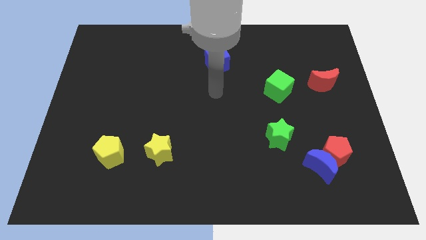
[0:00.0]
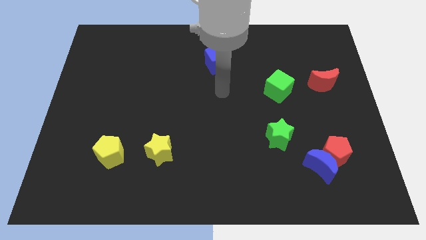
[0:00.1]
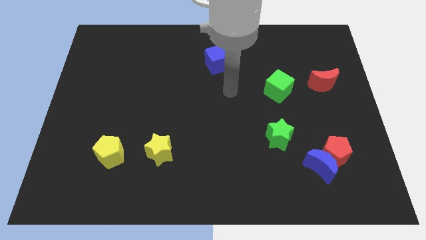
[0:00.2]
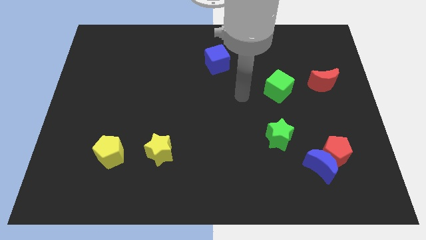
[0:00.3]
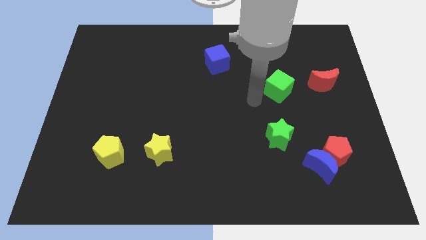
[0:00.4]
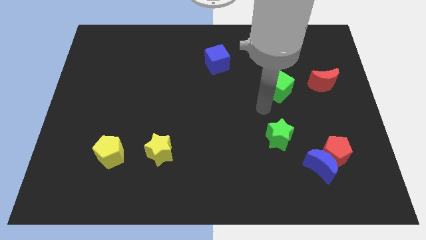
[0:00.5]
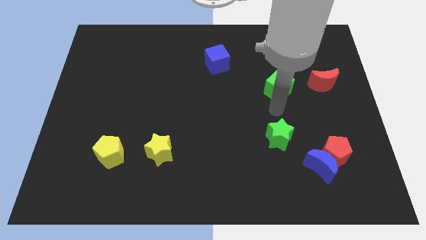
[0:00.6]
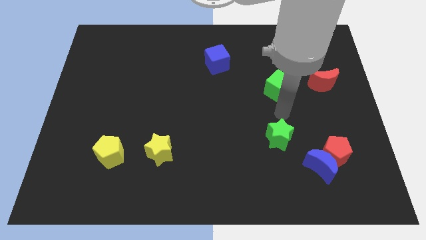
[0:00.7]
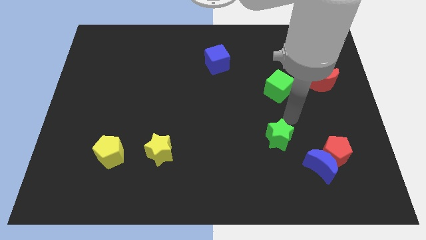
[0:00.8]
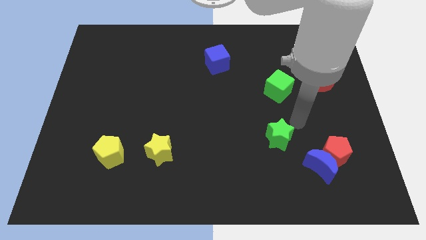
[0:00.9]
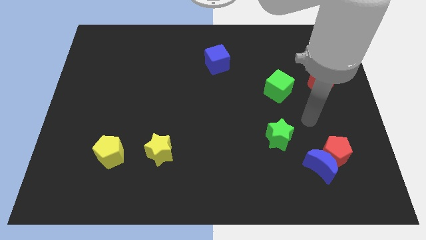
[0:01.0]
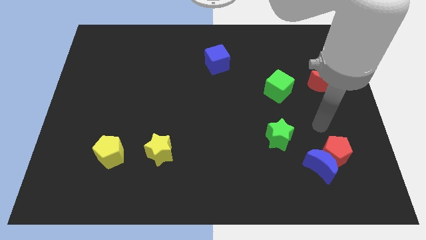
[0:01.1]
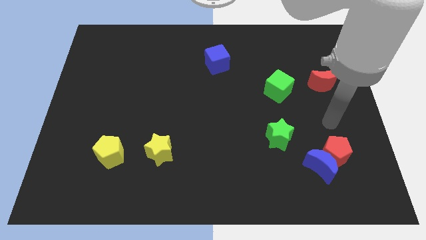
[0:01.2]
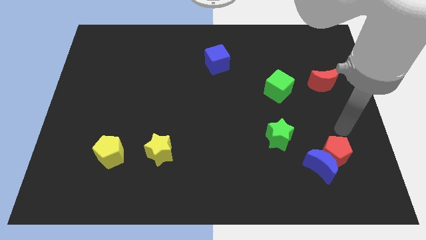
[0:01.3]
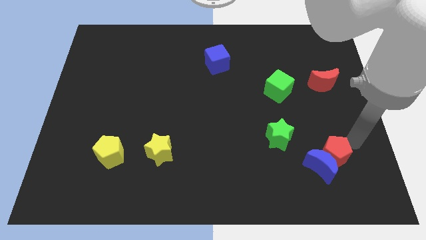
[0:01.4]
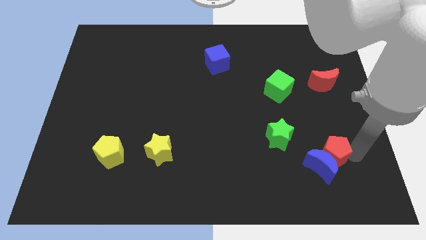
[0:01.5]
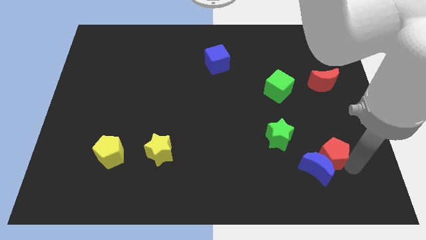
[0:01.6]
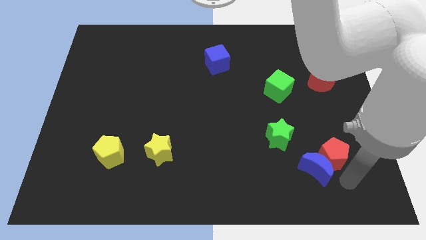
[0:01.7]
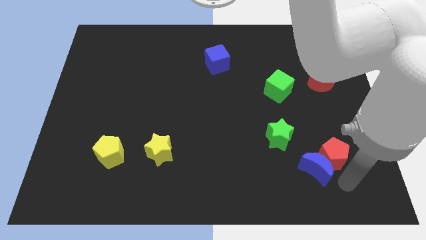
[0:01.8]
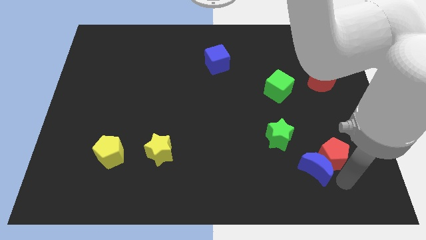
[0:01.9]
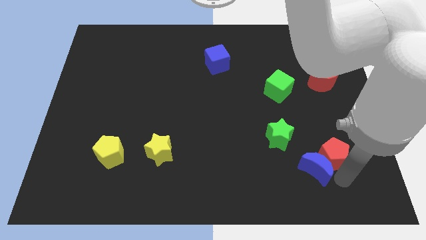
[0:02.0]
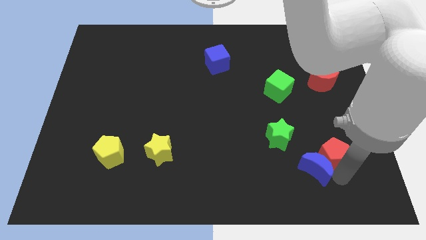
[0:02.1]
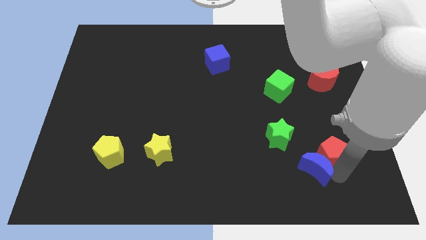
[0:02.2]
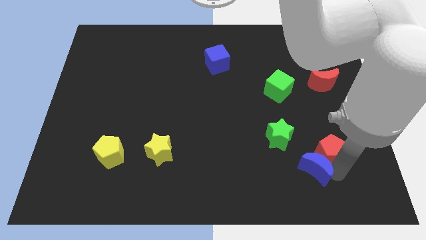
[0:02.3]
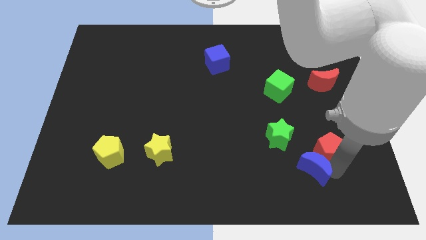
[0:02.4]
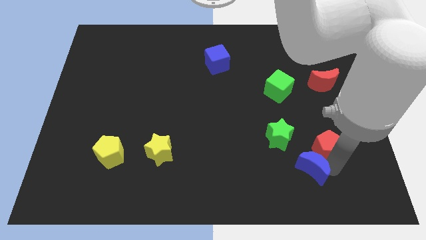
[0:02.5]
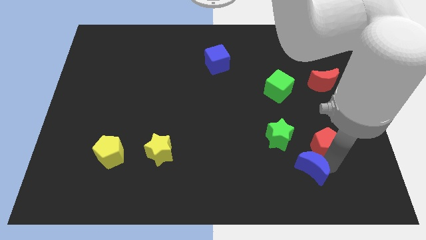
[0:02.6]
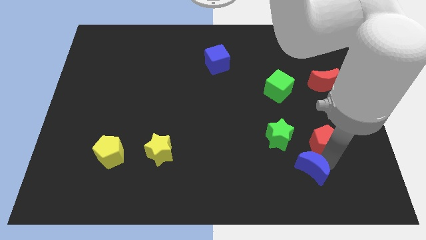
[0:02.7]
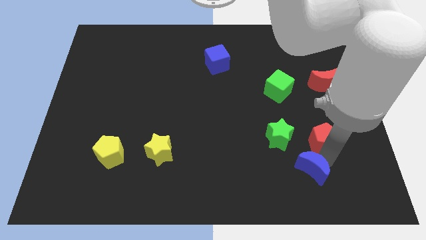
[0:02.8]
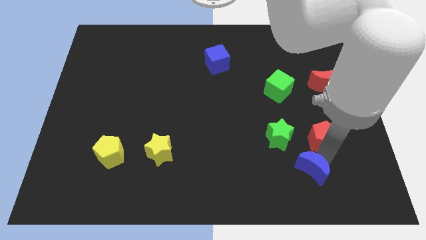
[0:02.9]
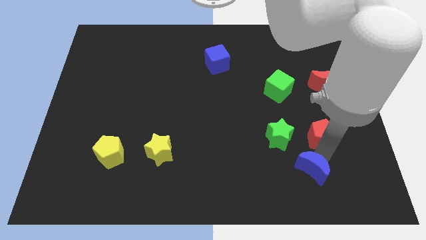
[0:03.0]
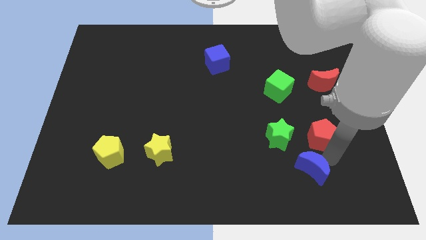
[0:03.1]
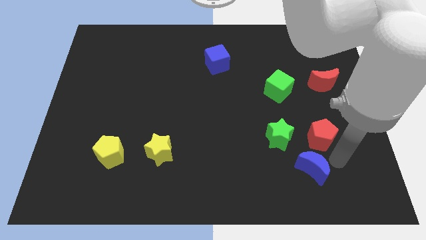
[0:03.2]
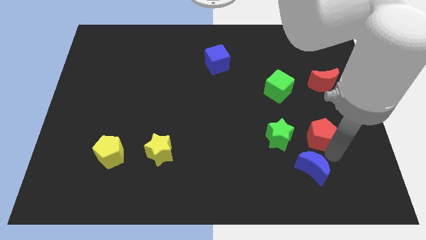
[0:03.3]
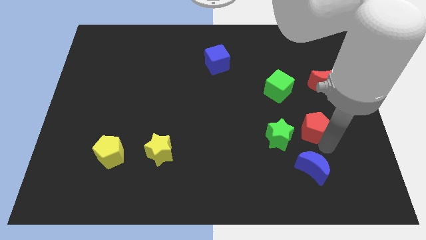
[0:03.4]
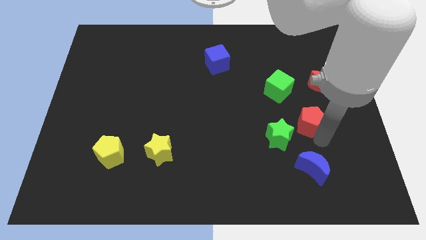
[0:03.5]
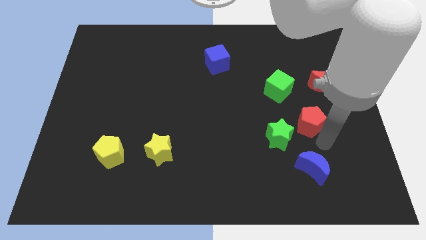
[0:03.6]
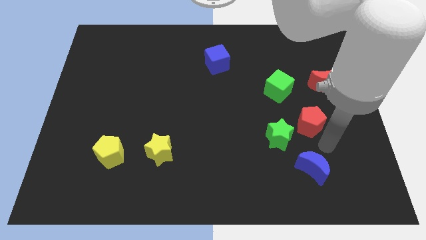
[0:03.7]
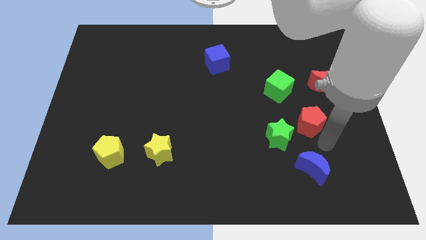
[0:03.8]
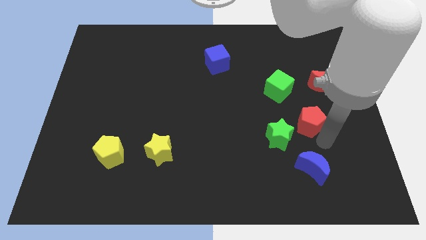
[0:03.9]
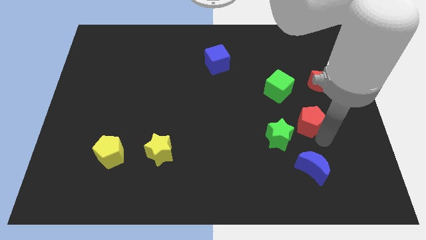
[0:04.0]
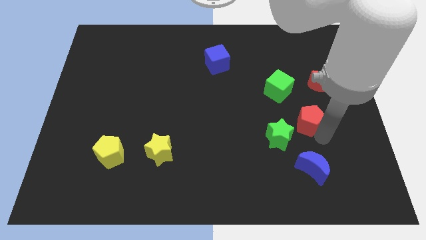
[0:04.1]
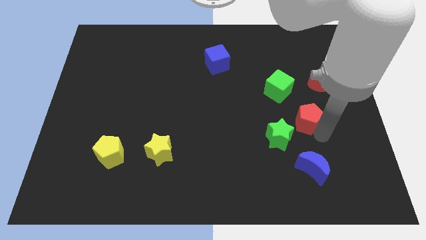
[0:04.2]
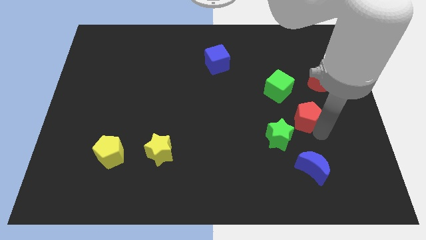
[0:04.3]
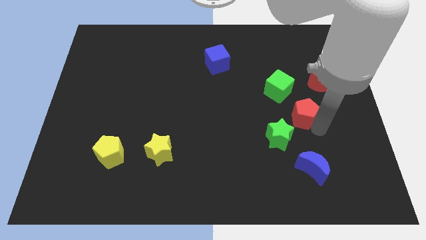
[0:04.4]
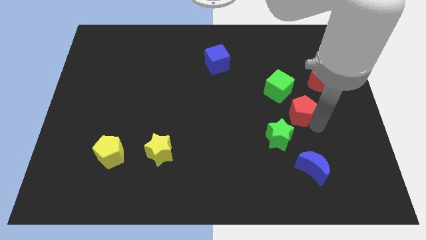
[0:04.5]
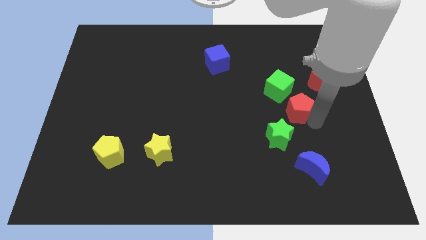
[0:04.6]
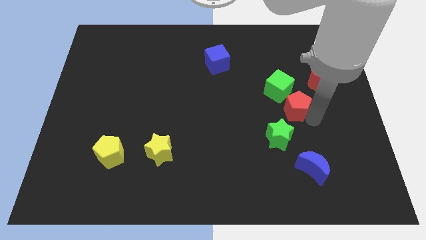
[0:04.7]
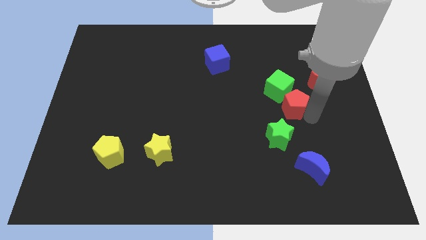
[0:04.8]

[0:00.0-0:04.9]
push the red pentagon towards the green cube

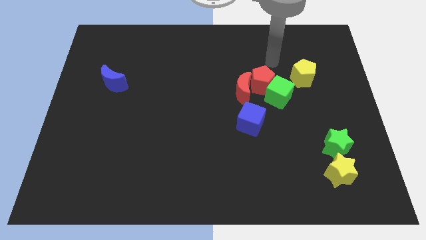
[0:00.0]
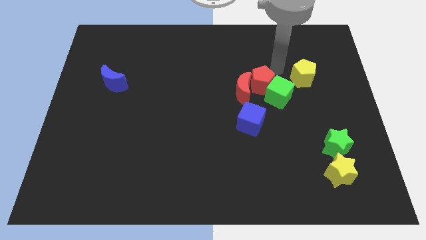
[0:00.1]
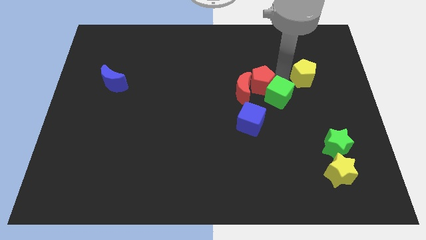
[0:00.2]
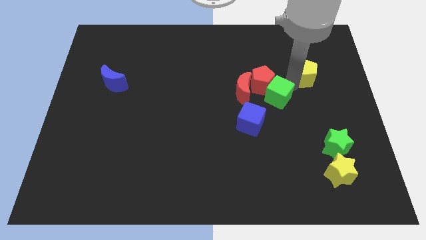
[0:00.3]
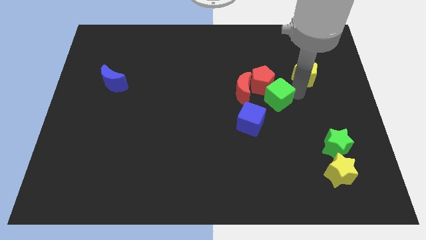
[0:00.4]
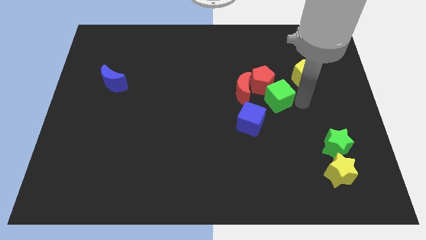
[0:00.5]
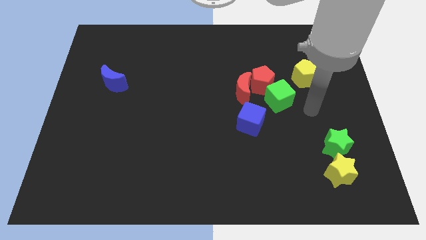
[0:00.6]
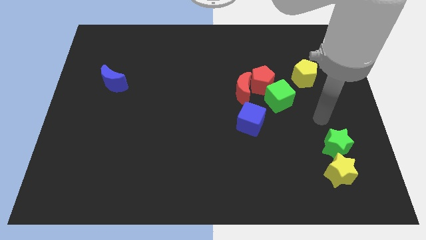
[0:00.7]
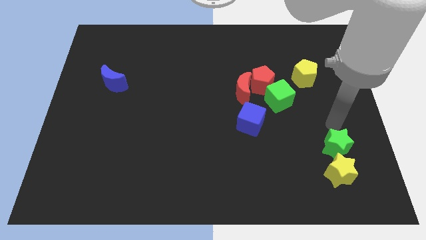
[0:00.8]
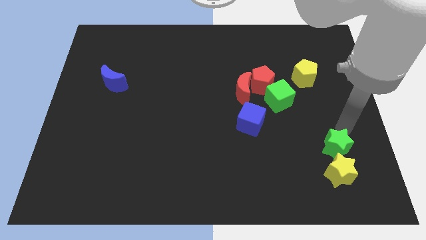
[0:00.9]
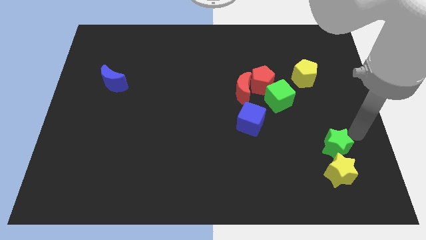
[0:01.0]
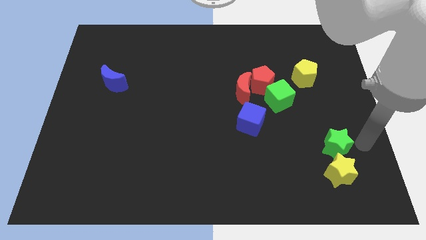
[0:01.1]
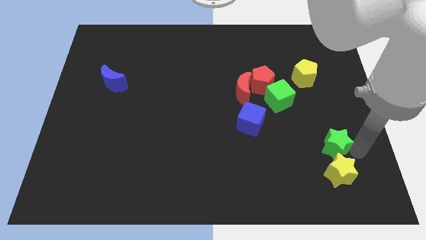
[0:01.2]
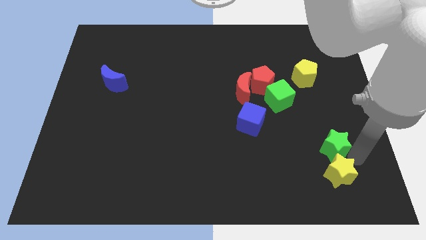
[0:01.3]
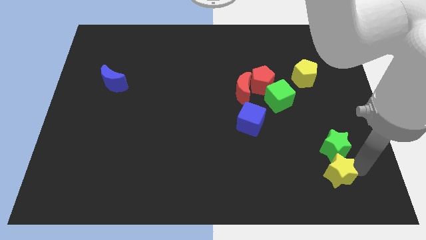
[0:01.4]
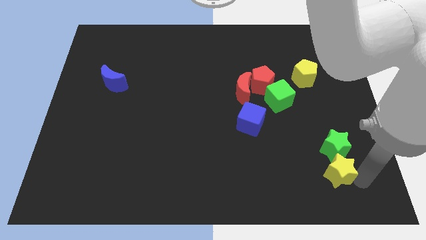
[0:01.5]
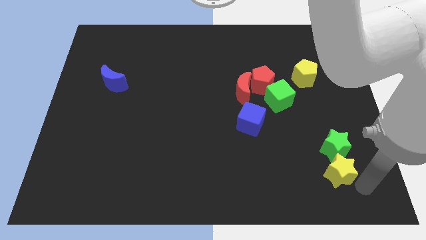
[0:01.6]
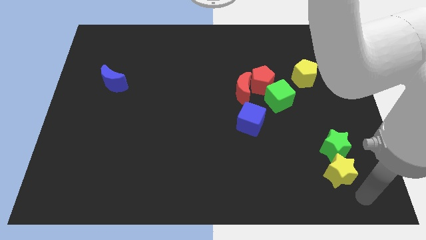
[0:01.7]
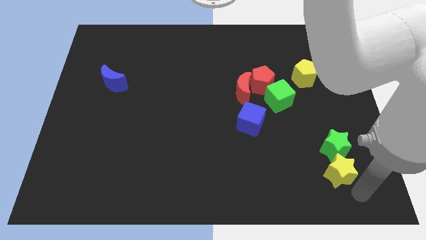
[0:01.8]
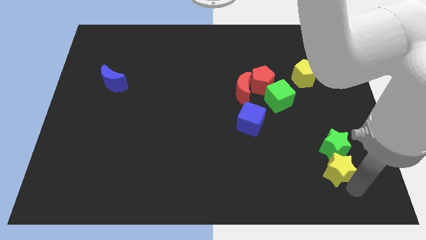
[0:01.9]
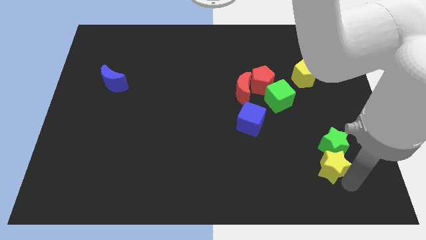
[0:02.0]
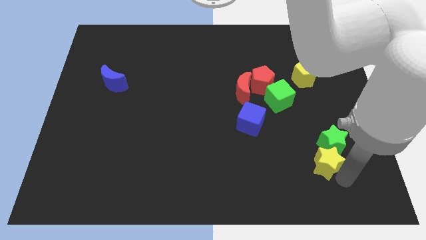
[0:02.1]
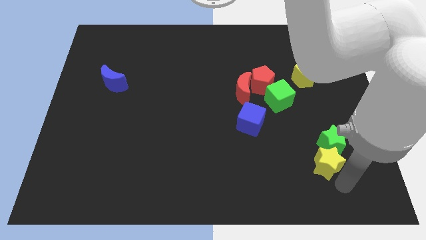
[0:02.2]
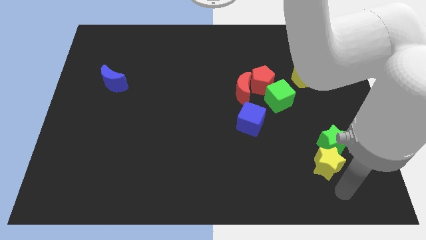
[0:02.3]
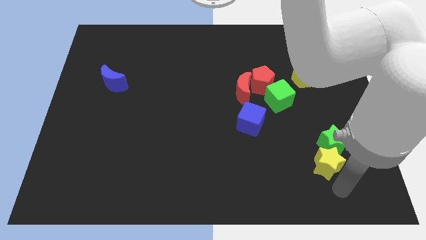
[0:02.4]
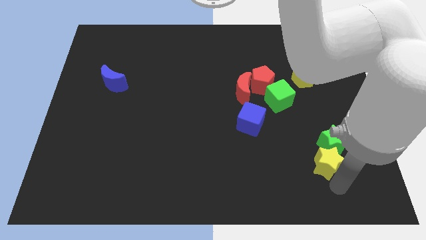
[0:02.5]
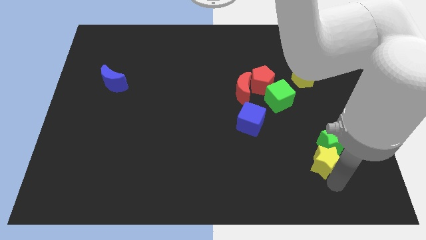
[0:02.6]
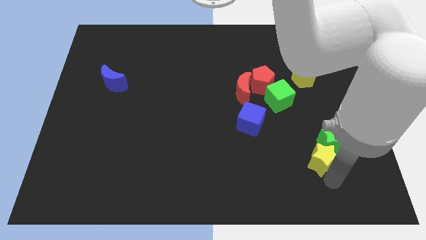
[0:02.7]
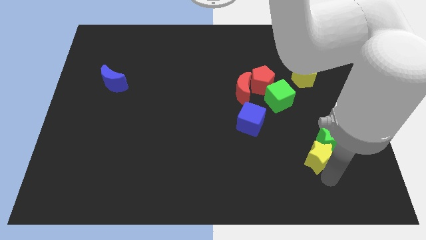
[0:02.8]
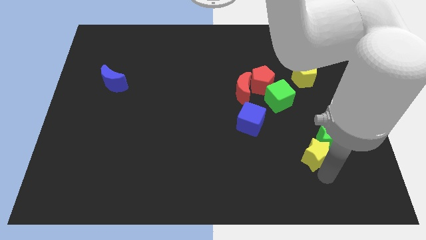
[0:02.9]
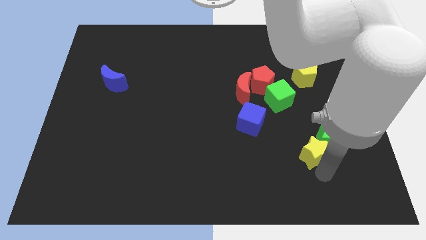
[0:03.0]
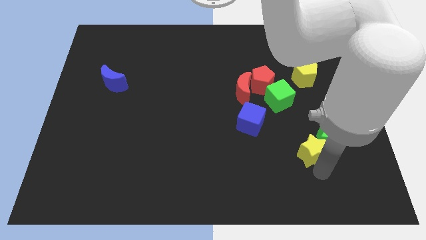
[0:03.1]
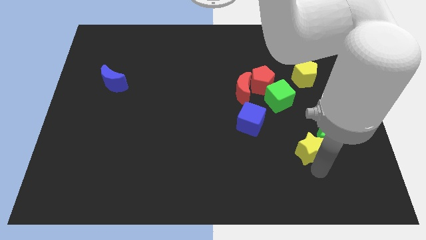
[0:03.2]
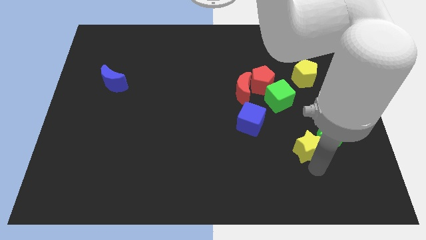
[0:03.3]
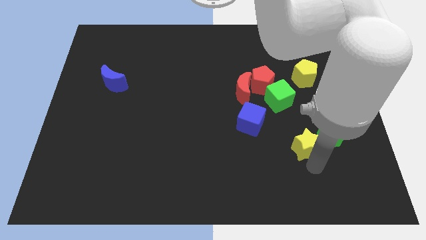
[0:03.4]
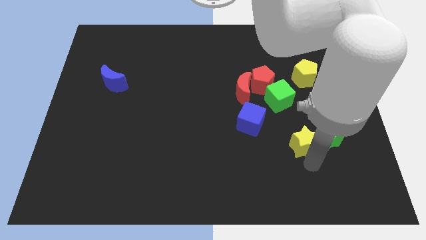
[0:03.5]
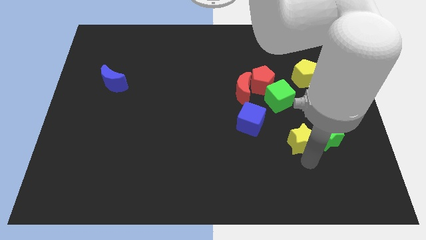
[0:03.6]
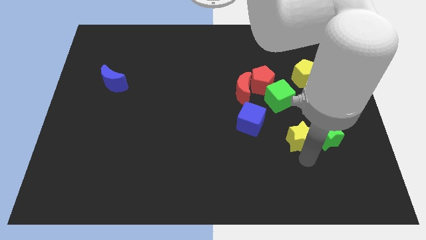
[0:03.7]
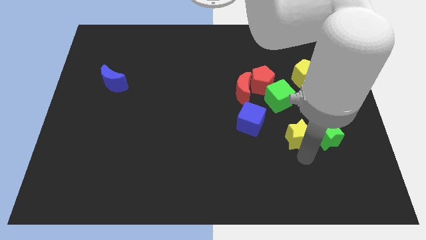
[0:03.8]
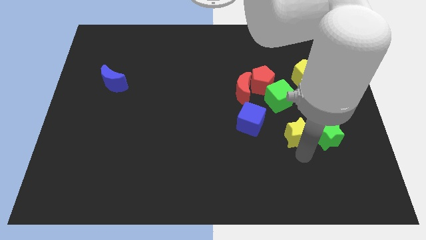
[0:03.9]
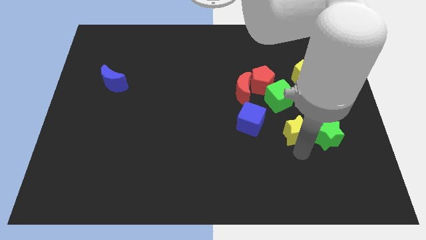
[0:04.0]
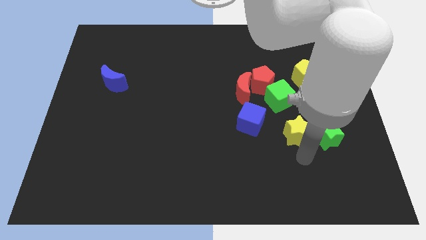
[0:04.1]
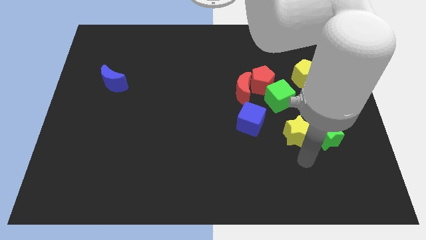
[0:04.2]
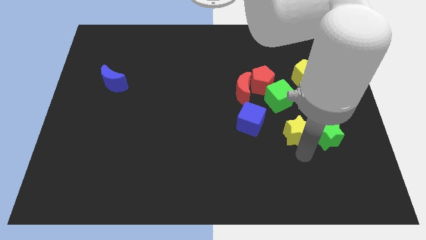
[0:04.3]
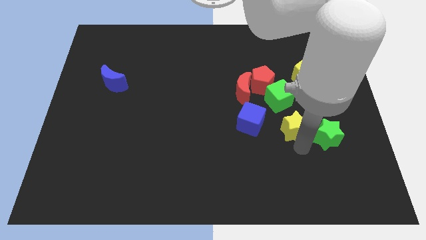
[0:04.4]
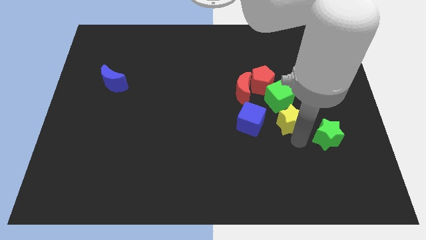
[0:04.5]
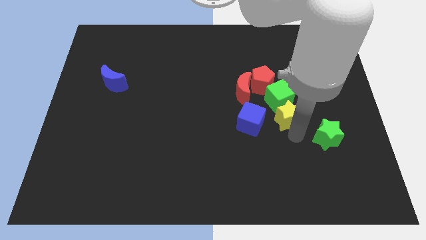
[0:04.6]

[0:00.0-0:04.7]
push the yellow star to the green cube
